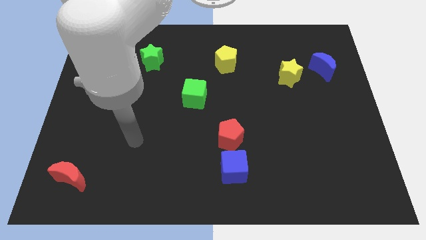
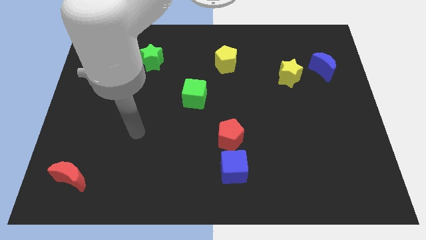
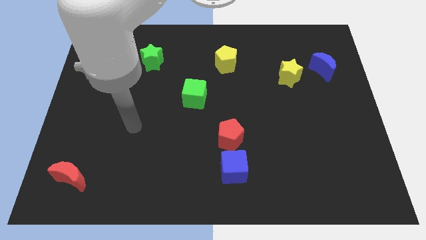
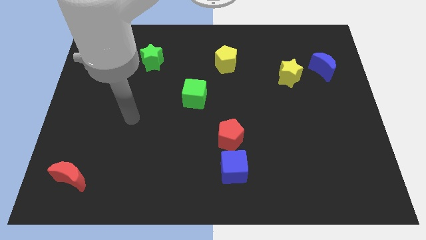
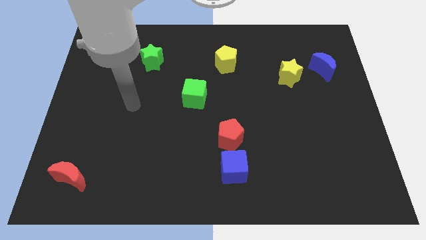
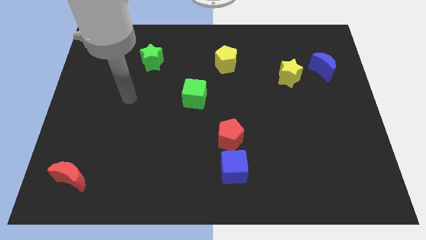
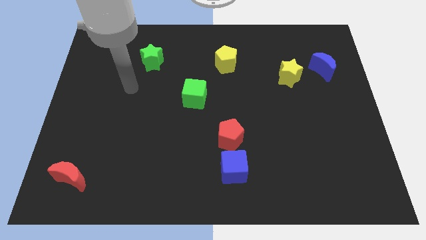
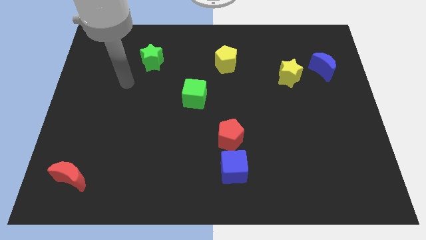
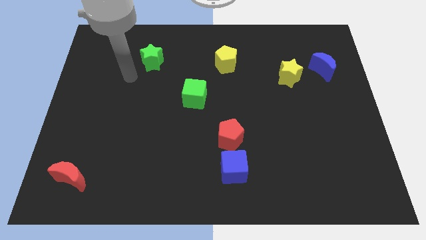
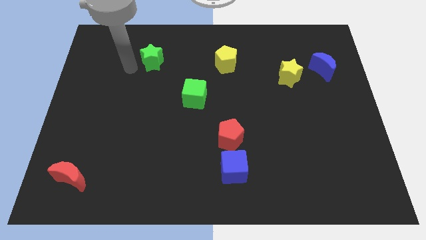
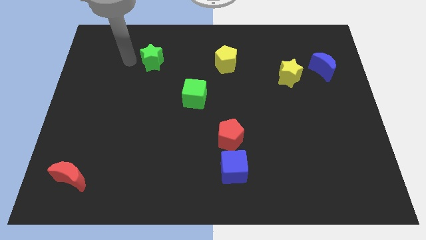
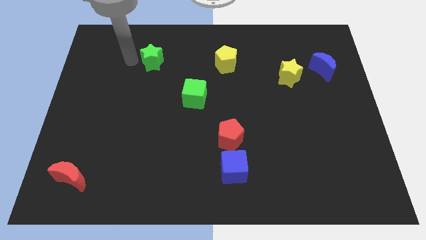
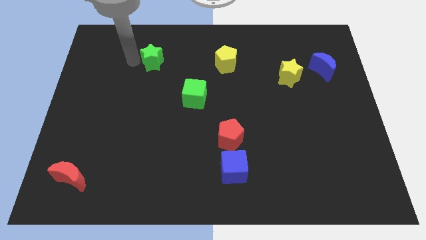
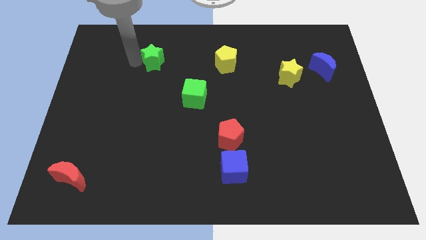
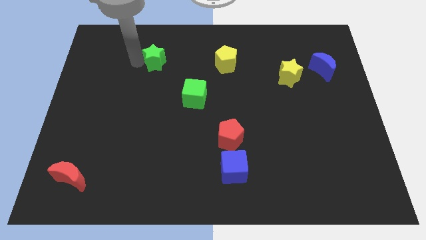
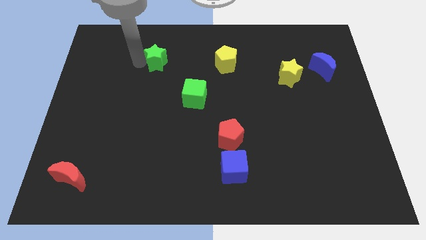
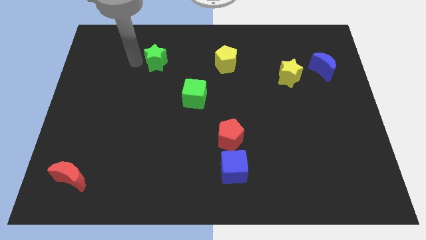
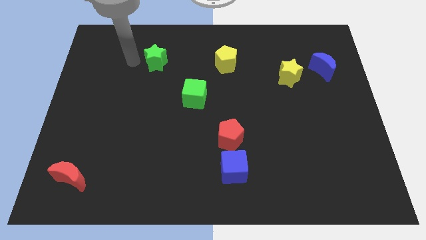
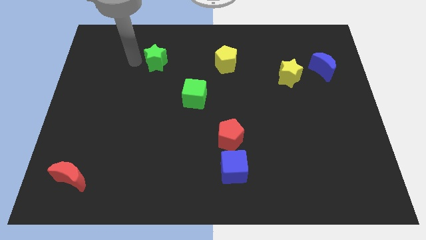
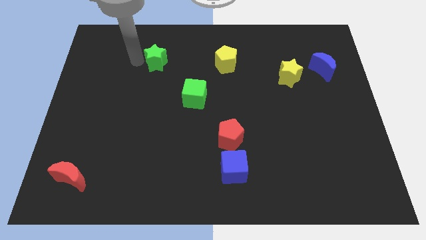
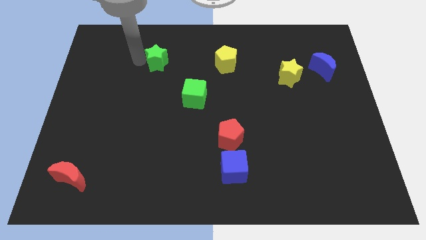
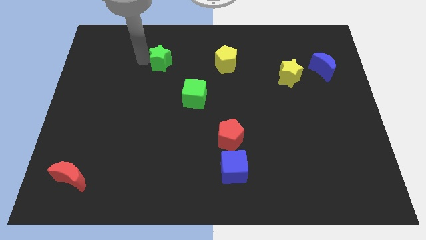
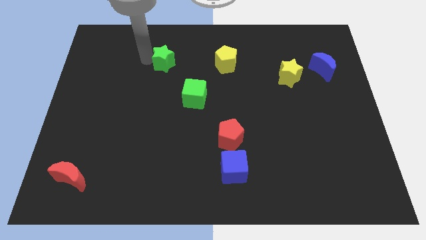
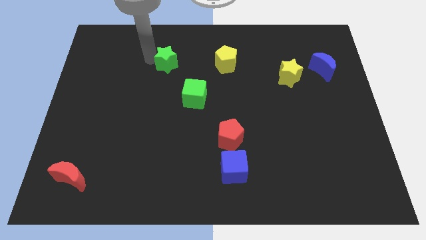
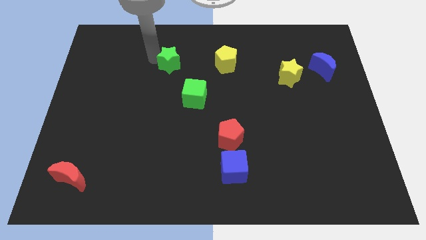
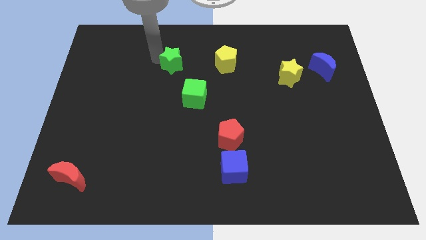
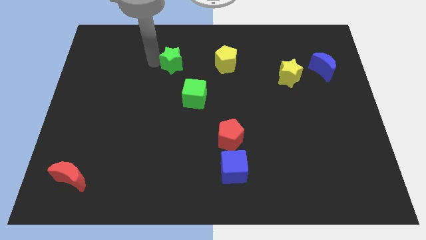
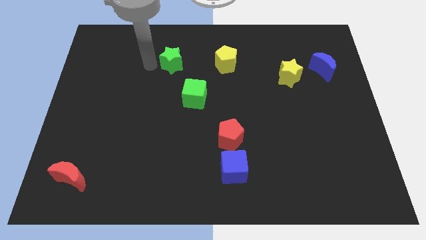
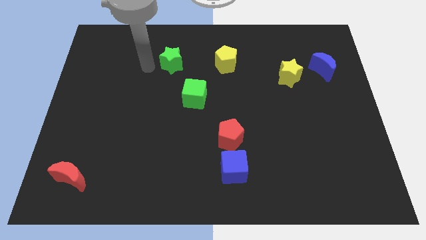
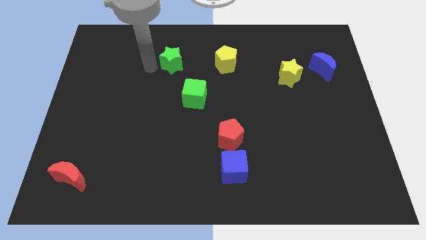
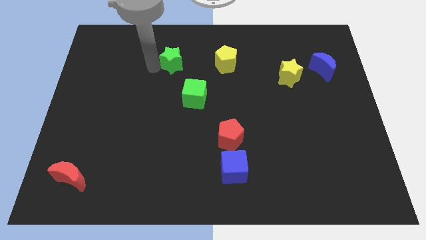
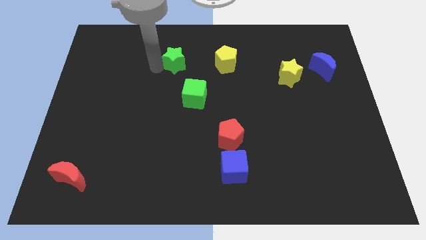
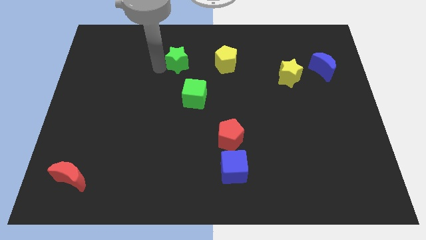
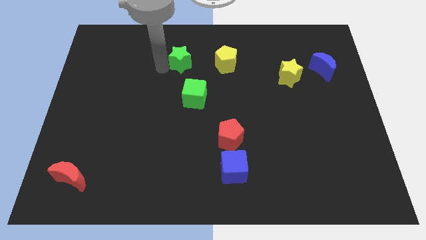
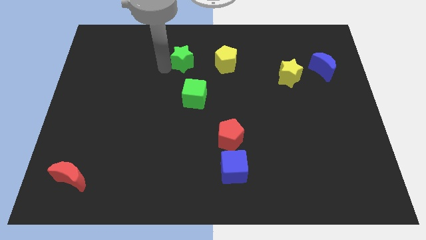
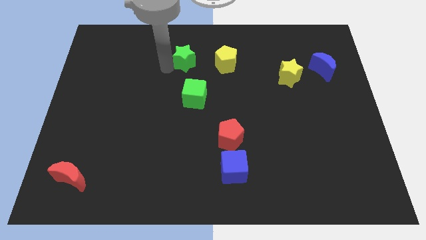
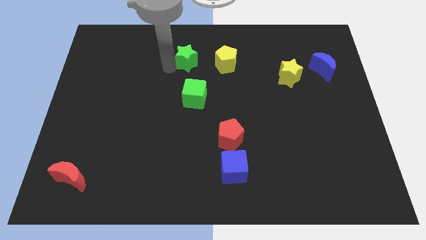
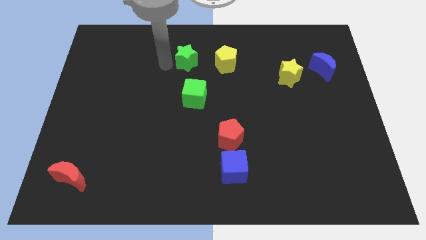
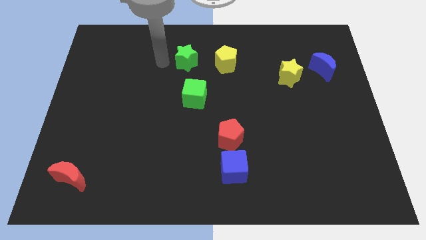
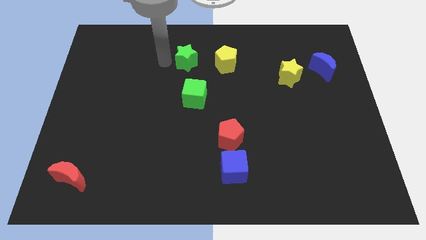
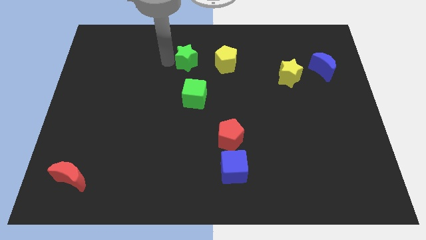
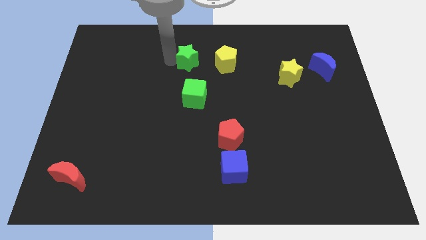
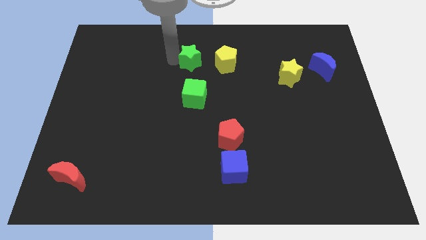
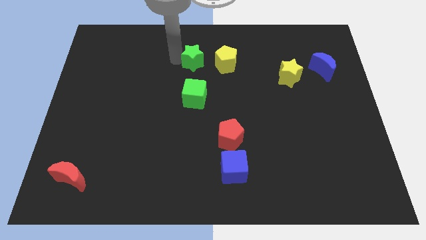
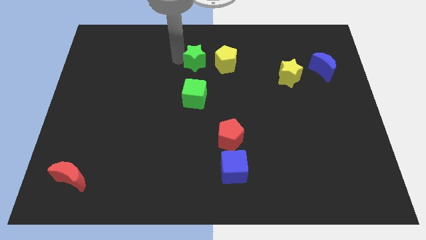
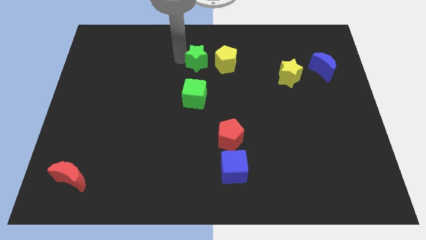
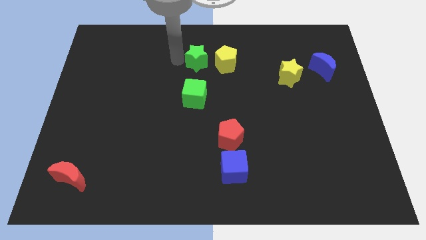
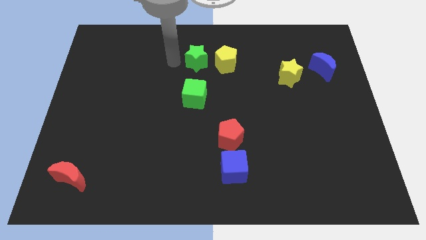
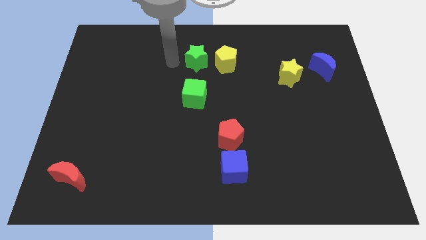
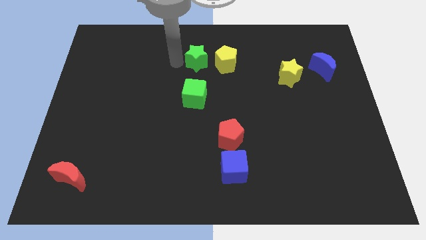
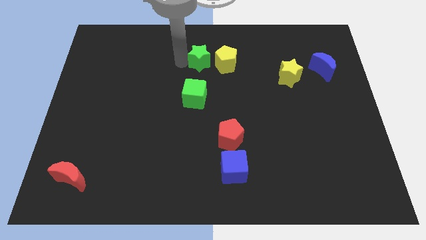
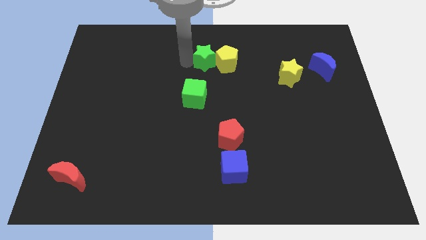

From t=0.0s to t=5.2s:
move the green star towards the yellow pentagon

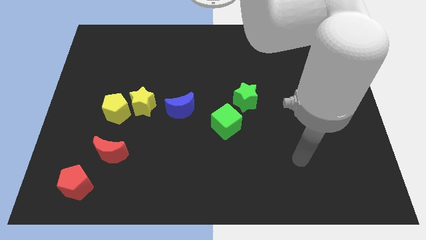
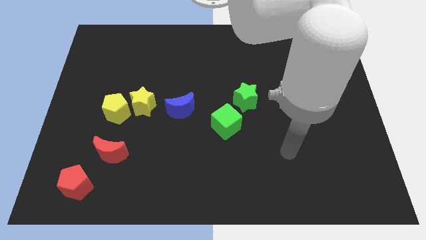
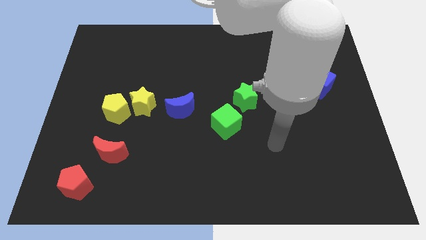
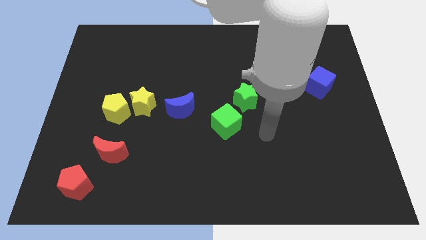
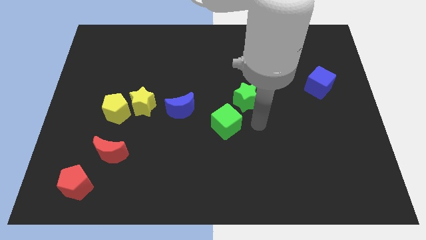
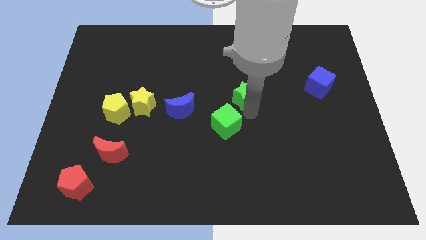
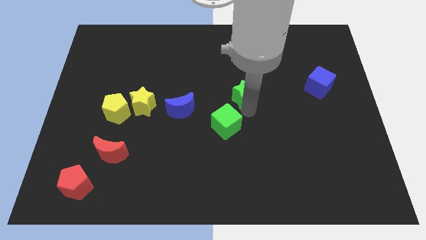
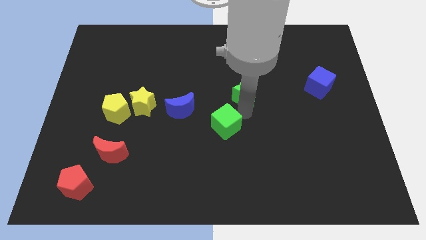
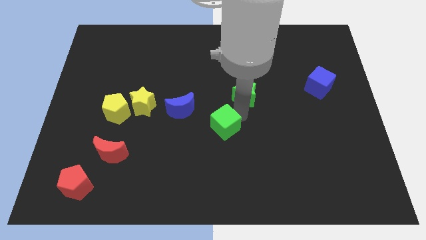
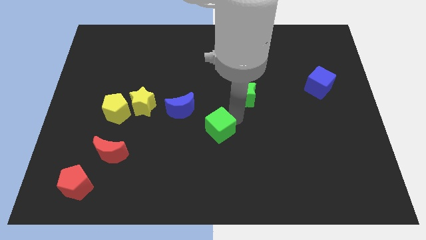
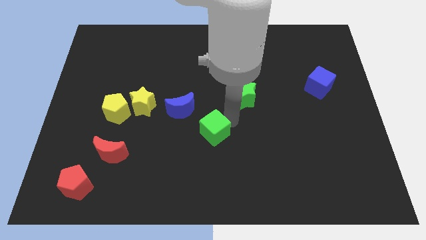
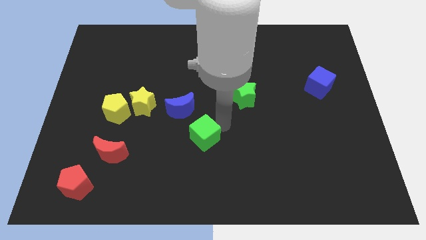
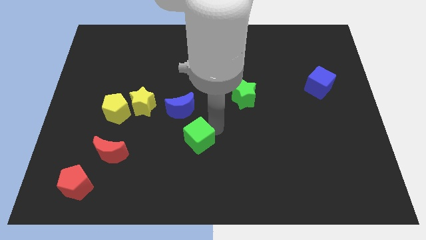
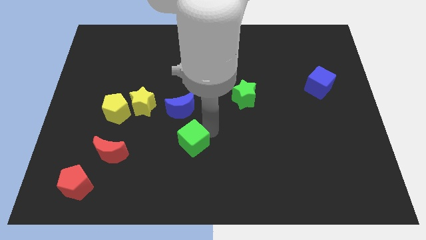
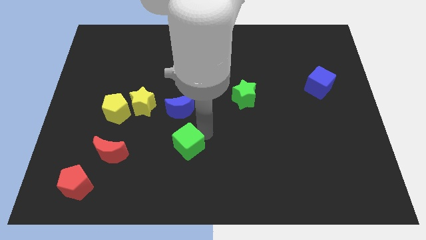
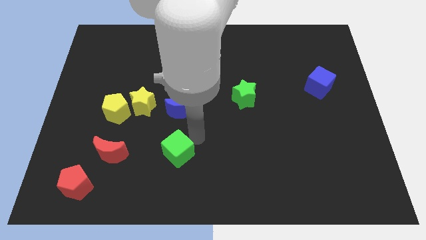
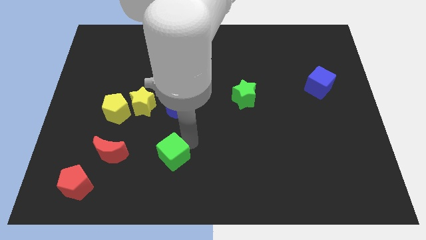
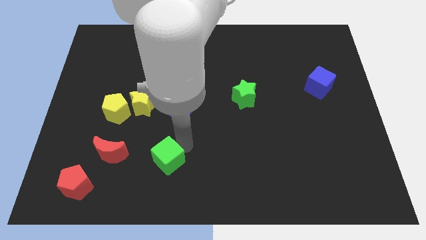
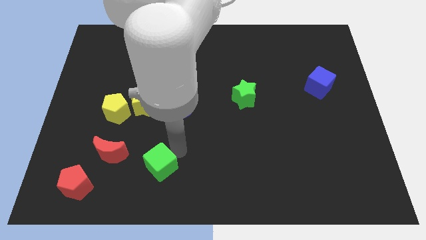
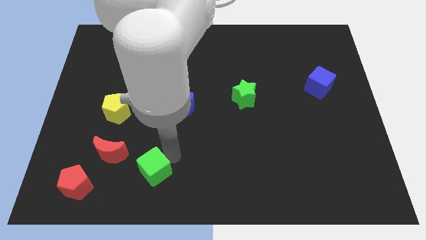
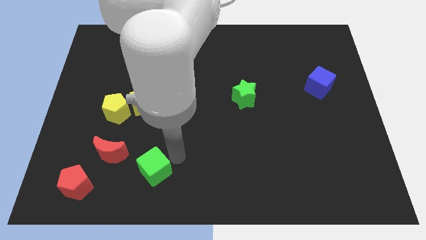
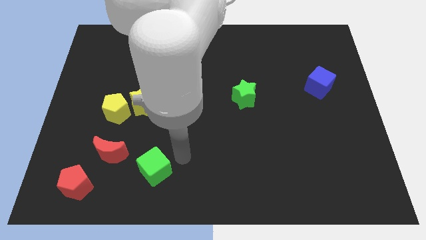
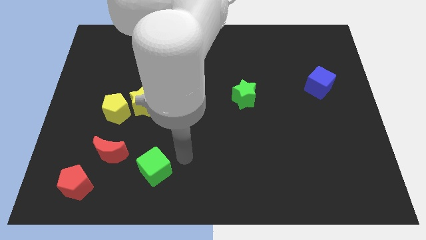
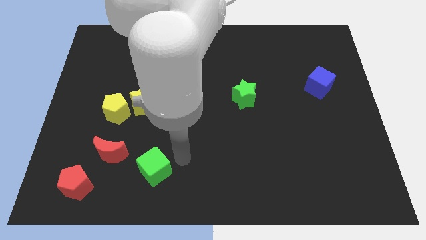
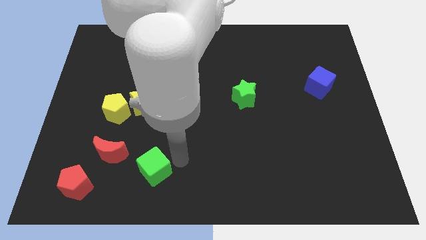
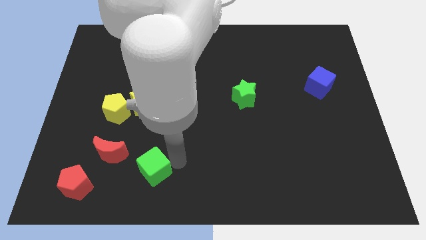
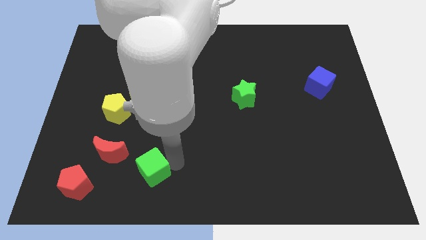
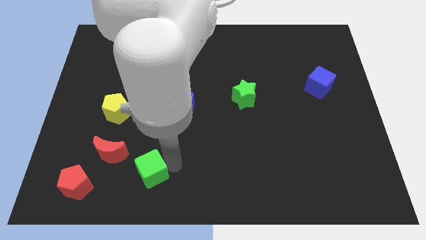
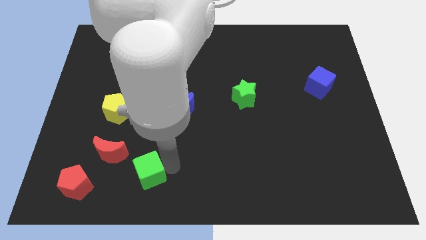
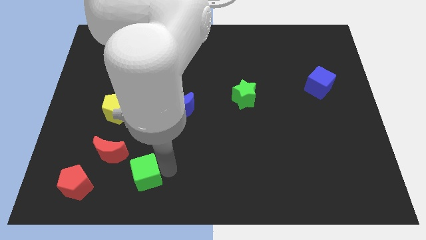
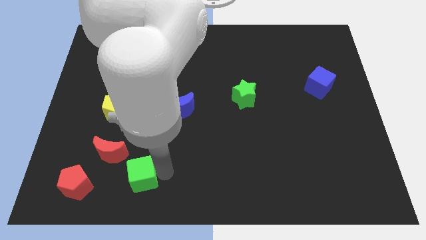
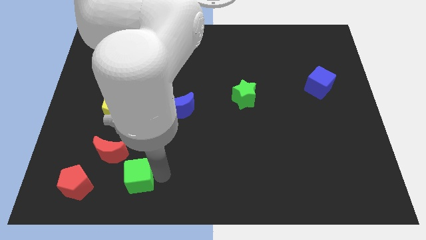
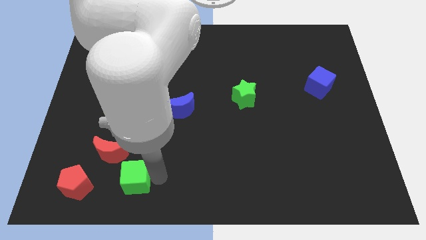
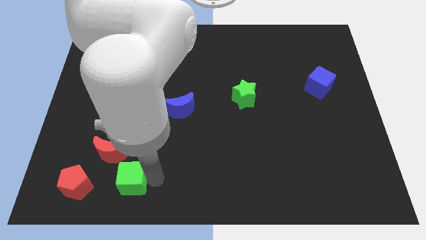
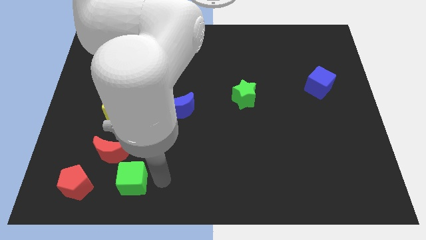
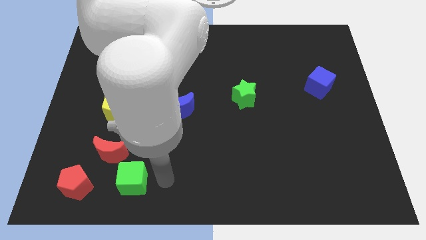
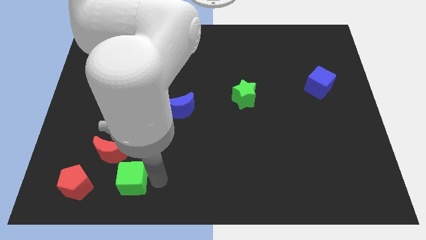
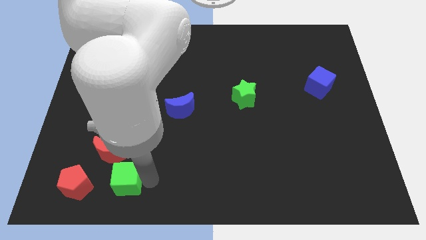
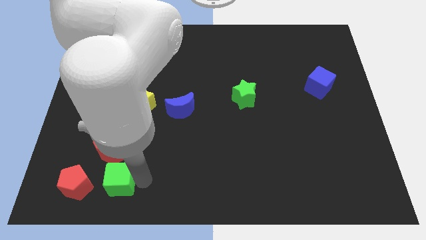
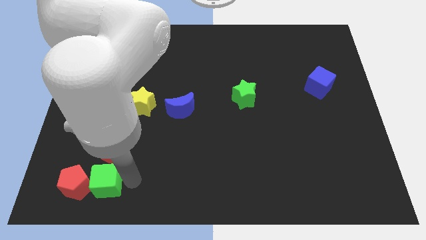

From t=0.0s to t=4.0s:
put the green cube towards the red pentagon
